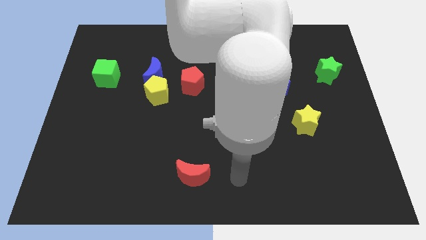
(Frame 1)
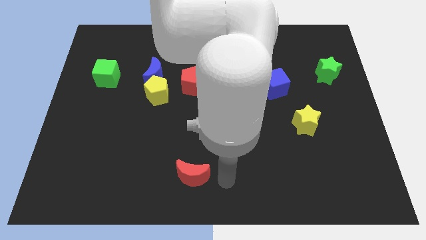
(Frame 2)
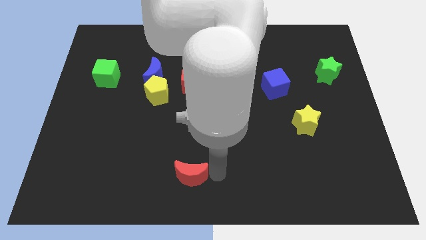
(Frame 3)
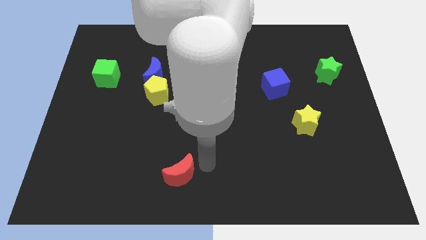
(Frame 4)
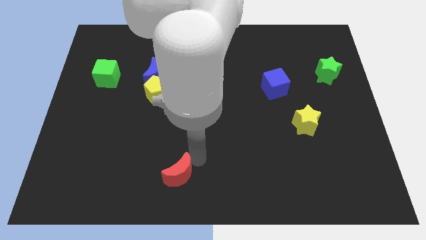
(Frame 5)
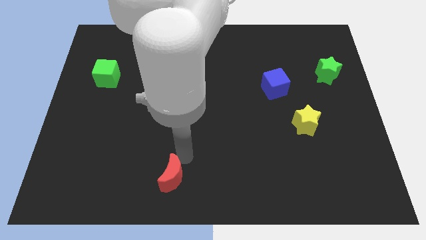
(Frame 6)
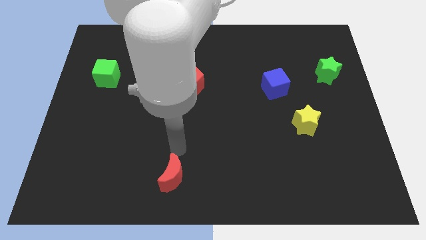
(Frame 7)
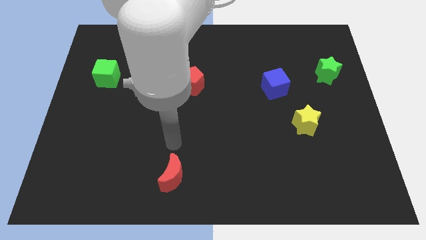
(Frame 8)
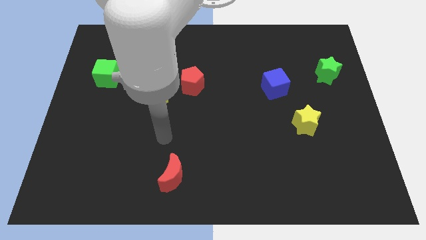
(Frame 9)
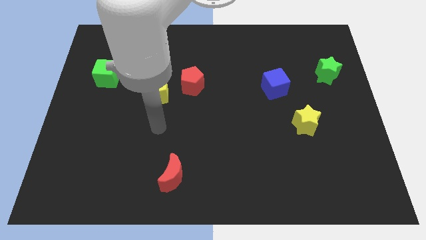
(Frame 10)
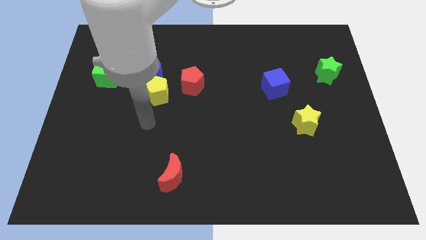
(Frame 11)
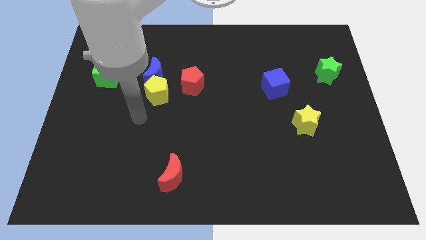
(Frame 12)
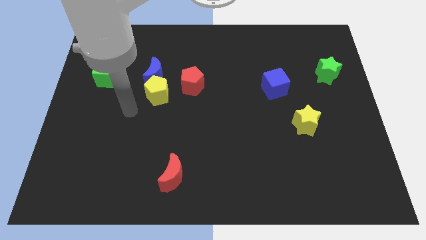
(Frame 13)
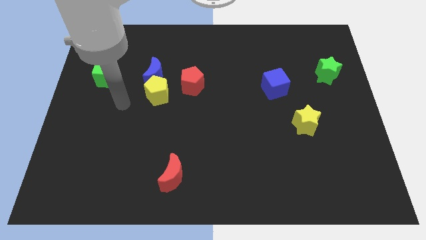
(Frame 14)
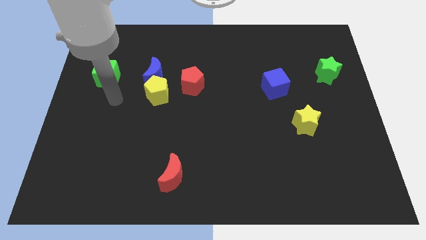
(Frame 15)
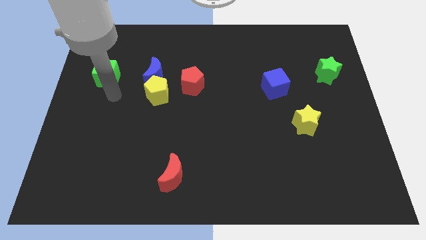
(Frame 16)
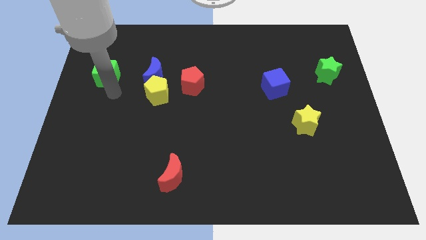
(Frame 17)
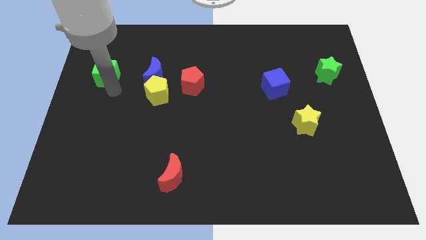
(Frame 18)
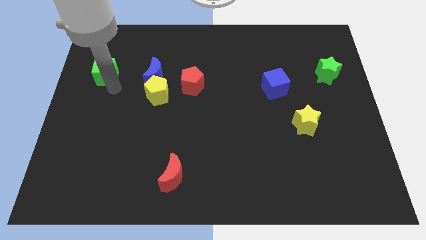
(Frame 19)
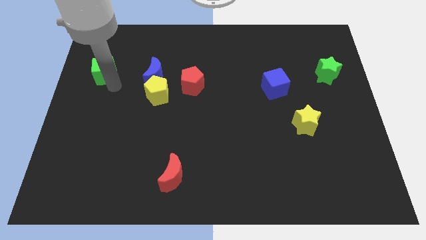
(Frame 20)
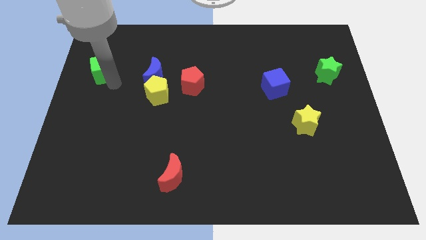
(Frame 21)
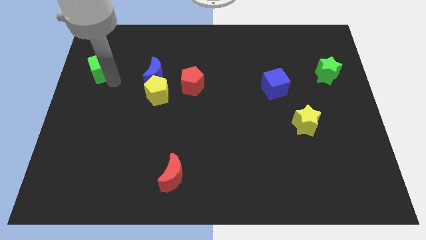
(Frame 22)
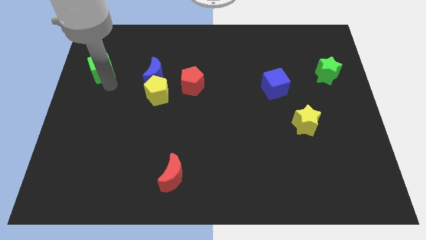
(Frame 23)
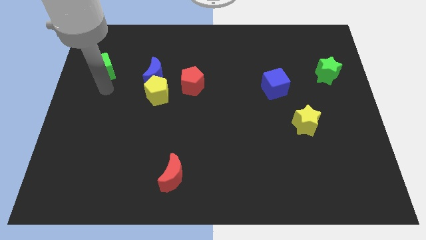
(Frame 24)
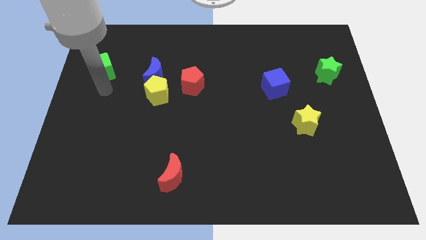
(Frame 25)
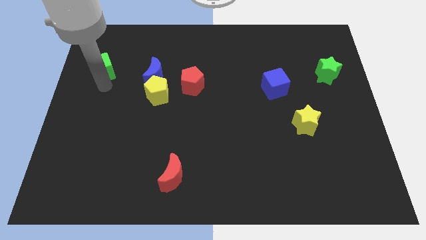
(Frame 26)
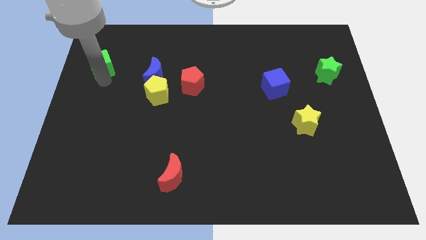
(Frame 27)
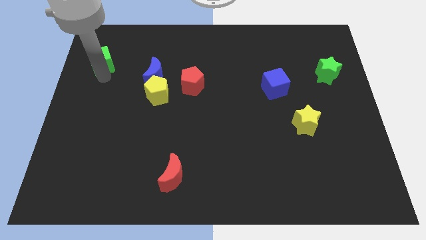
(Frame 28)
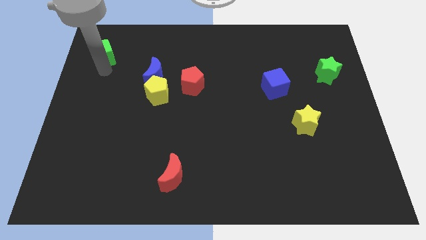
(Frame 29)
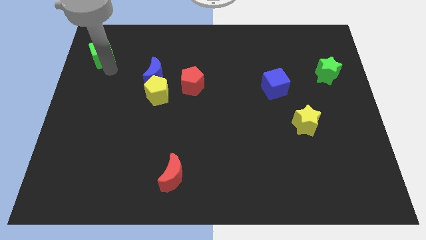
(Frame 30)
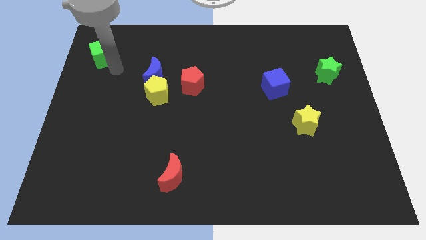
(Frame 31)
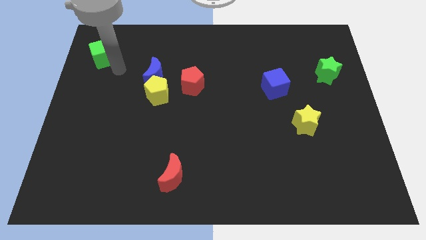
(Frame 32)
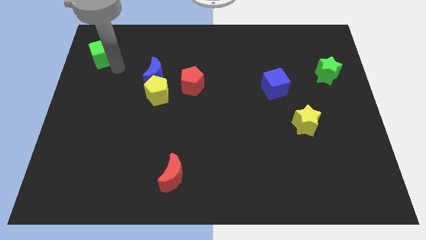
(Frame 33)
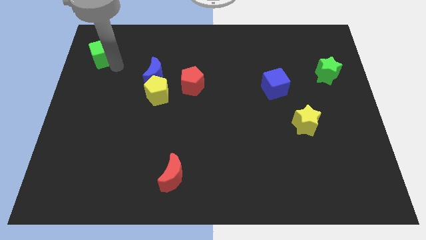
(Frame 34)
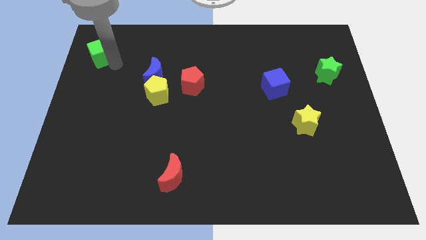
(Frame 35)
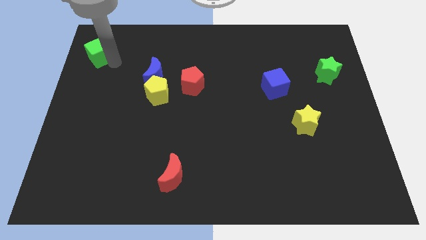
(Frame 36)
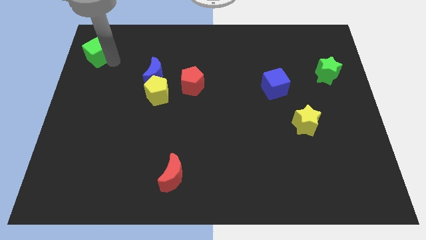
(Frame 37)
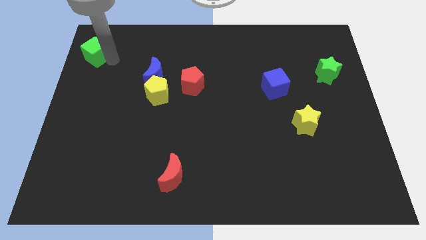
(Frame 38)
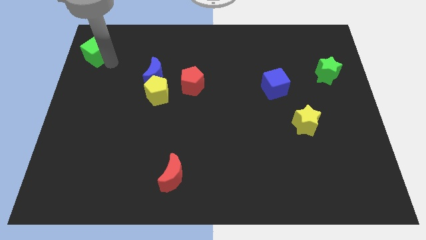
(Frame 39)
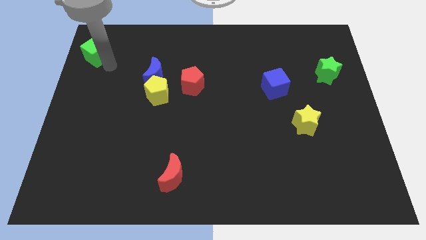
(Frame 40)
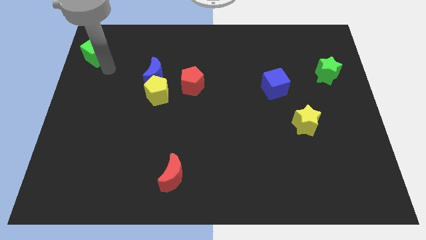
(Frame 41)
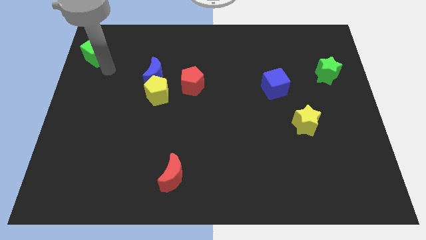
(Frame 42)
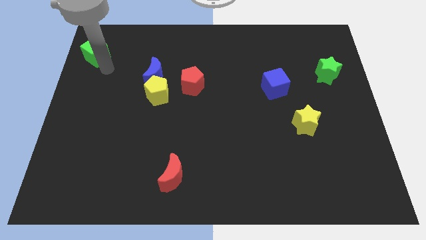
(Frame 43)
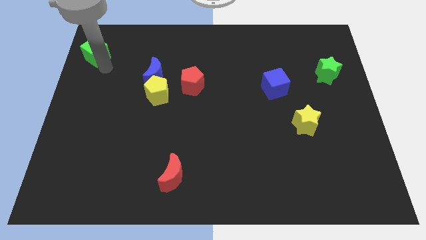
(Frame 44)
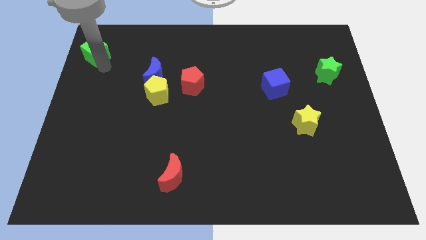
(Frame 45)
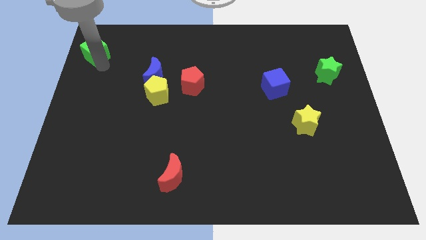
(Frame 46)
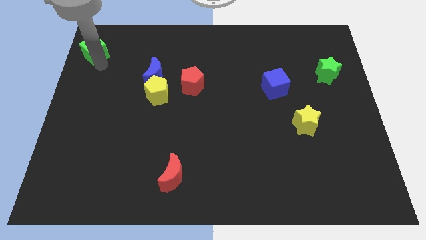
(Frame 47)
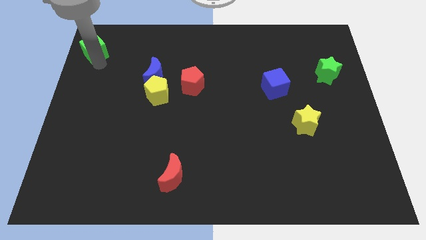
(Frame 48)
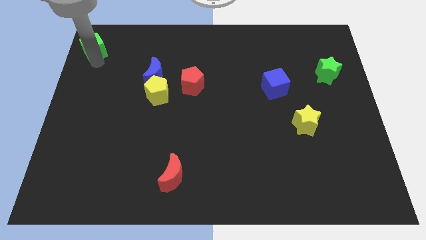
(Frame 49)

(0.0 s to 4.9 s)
move the green cube to the upper left corner

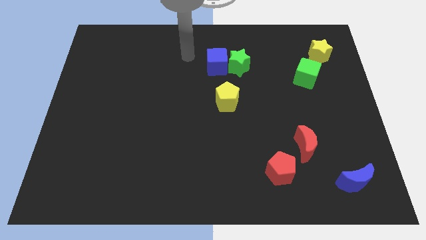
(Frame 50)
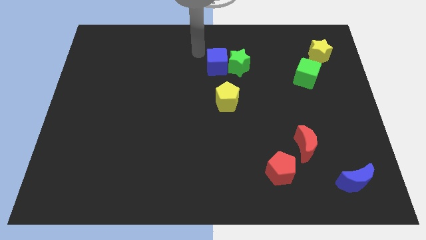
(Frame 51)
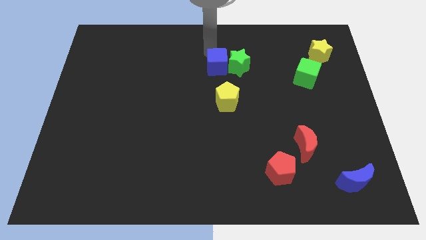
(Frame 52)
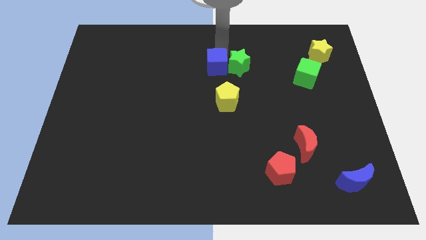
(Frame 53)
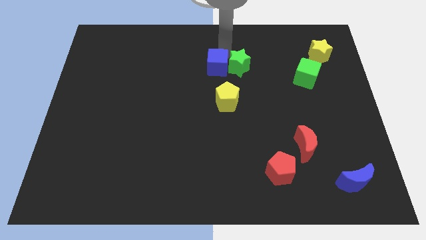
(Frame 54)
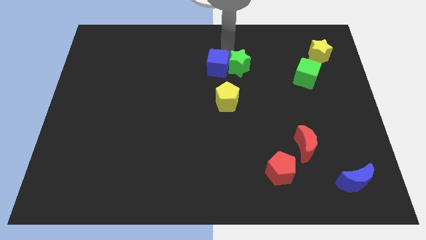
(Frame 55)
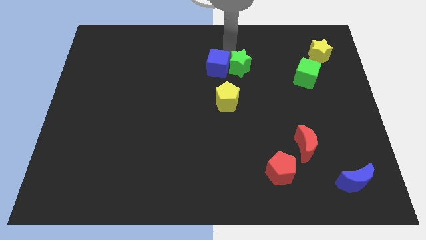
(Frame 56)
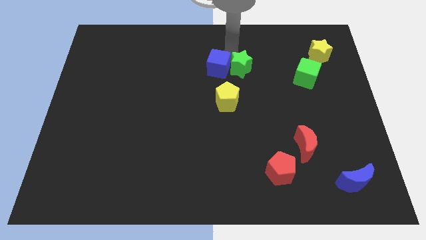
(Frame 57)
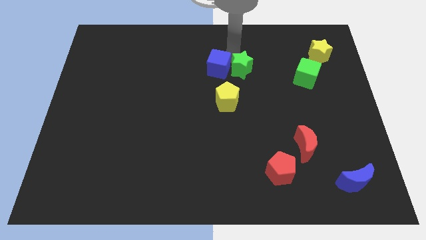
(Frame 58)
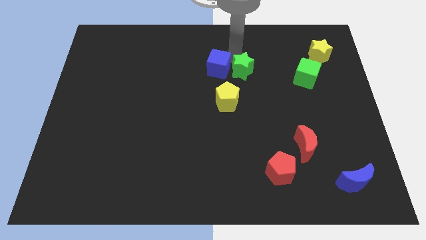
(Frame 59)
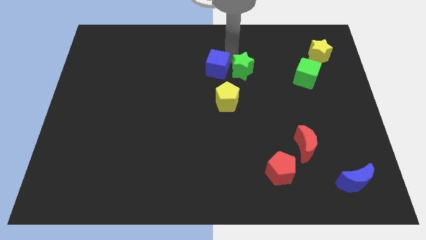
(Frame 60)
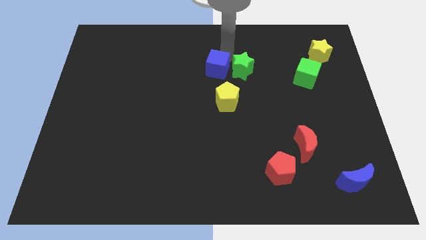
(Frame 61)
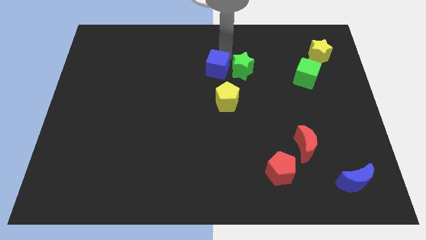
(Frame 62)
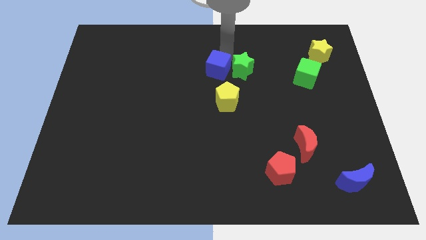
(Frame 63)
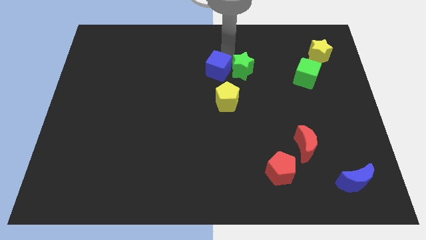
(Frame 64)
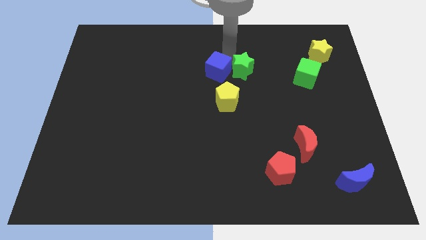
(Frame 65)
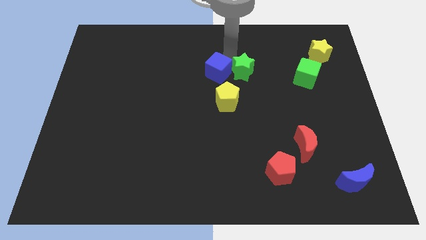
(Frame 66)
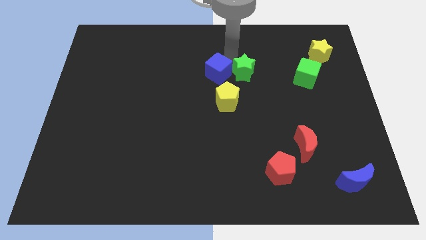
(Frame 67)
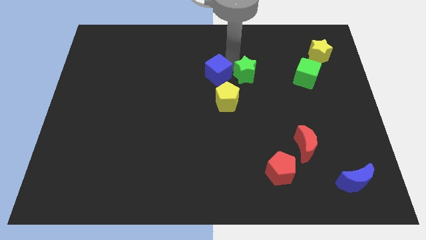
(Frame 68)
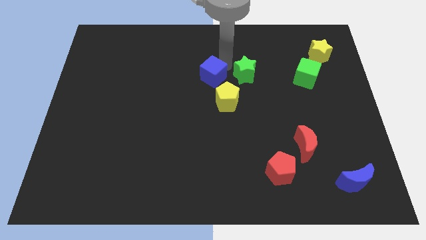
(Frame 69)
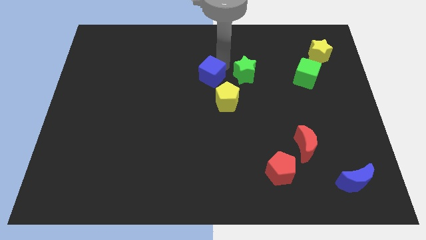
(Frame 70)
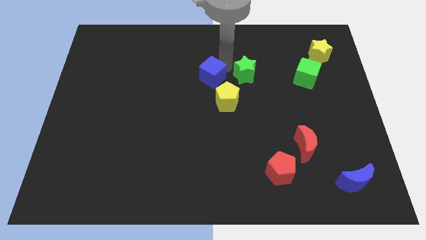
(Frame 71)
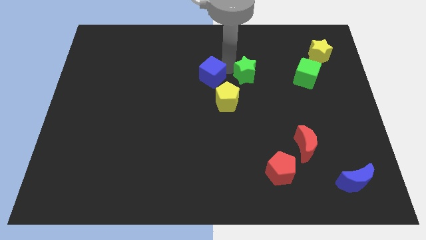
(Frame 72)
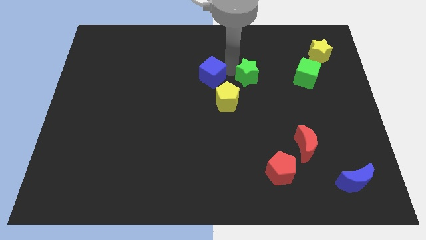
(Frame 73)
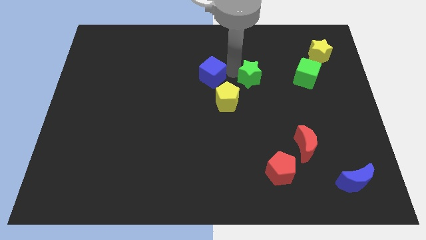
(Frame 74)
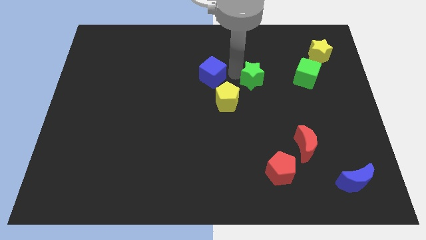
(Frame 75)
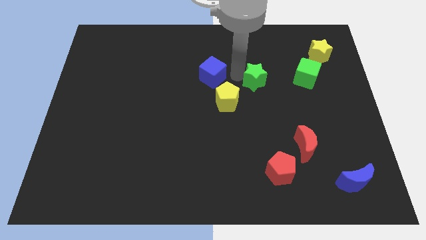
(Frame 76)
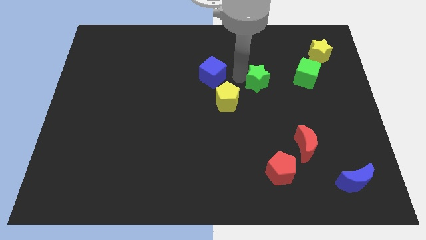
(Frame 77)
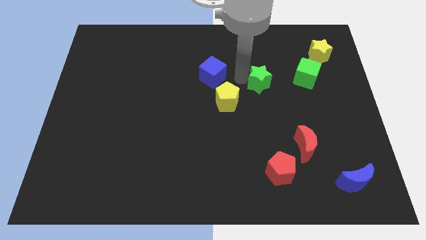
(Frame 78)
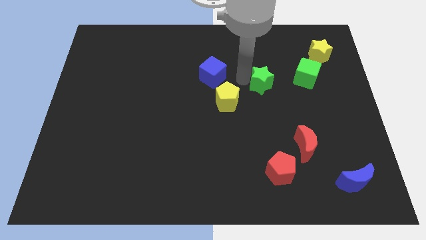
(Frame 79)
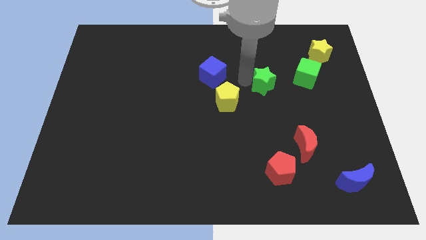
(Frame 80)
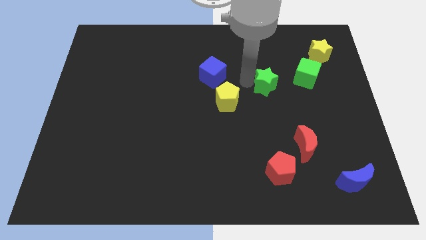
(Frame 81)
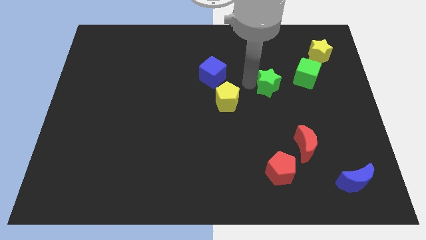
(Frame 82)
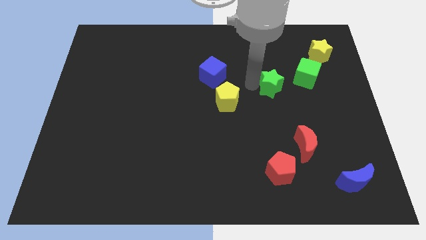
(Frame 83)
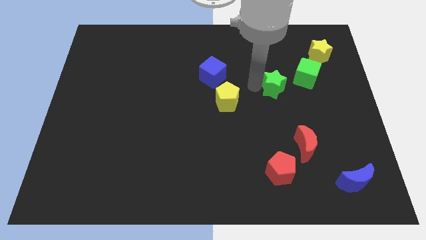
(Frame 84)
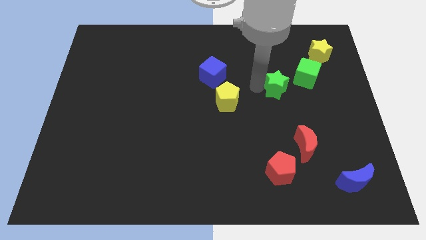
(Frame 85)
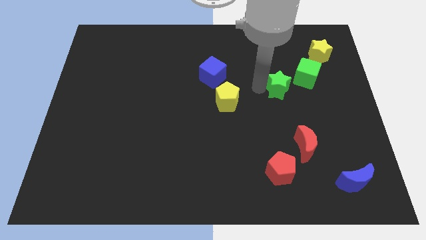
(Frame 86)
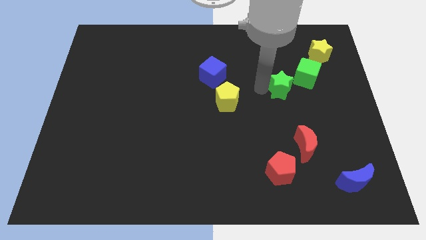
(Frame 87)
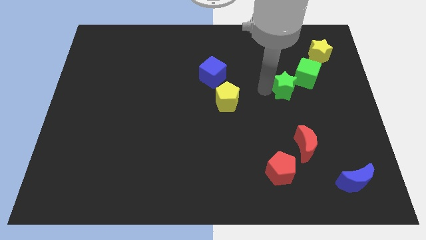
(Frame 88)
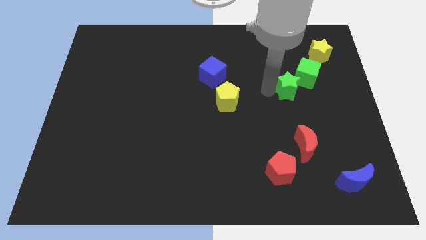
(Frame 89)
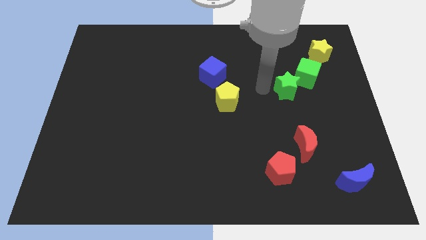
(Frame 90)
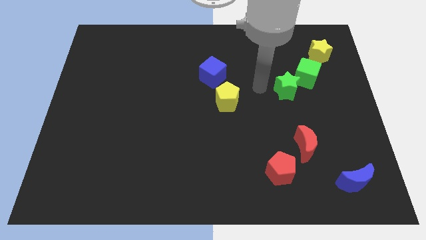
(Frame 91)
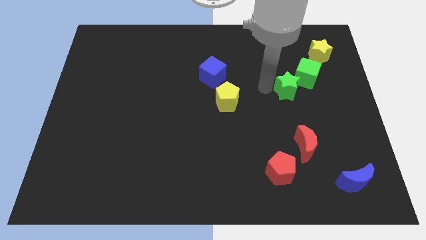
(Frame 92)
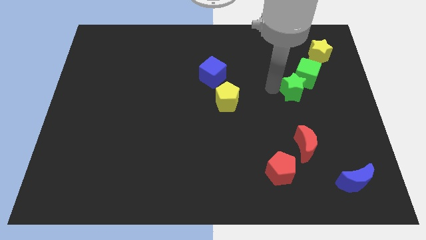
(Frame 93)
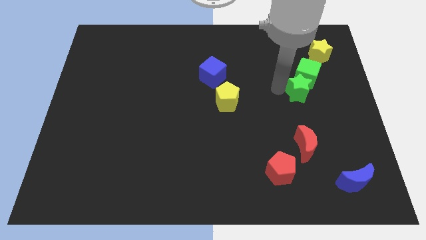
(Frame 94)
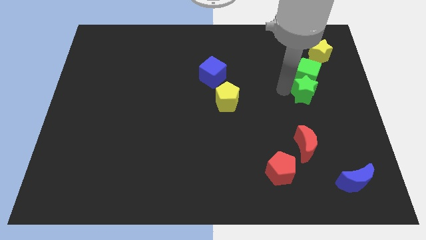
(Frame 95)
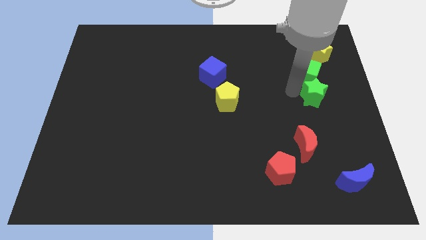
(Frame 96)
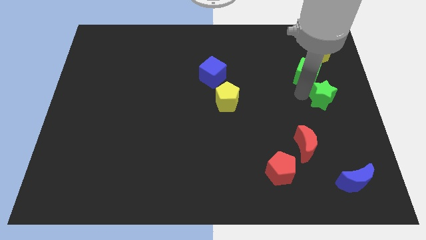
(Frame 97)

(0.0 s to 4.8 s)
push the green star to the center right
